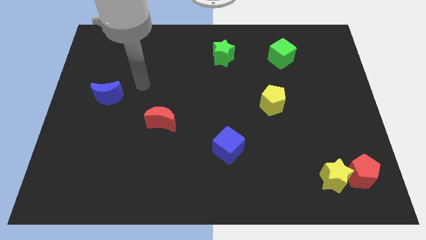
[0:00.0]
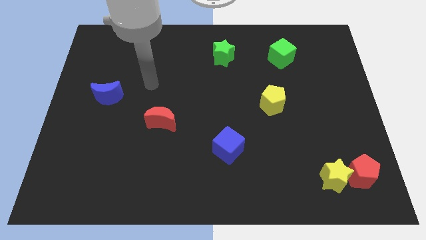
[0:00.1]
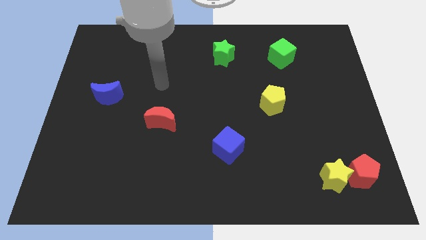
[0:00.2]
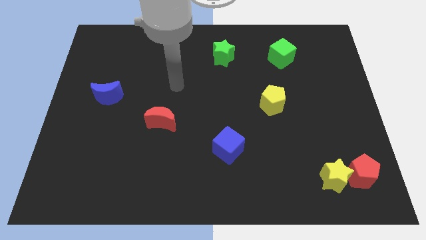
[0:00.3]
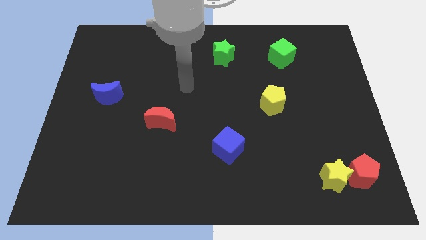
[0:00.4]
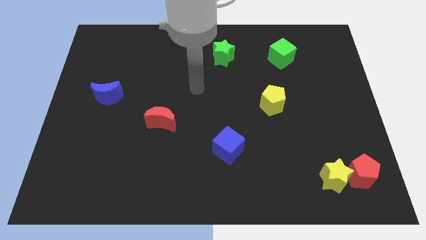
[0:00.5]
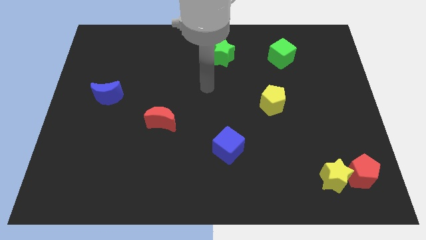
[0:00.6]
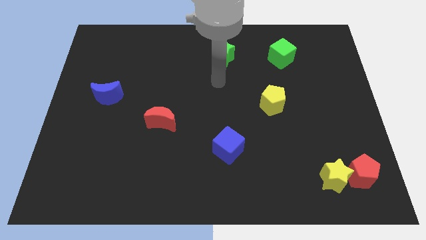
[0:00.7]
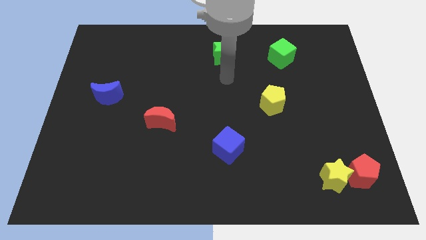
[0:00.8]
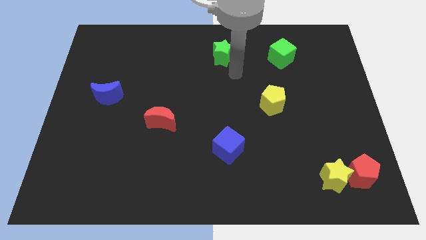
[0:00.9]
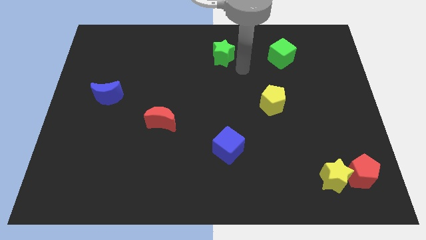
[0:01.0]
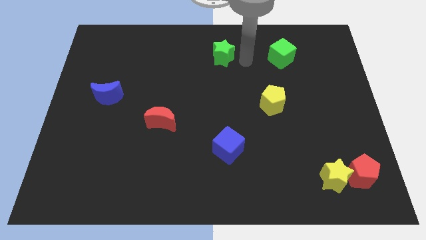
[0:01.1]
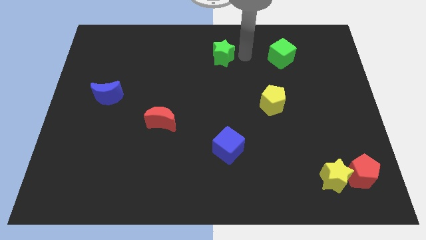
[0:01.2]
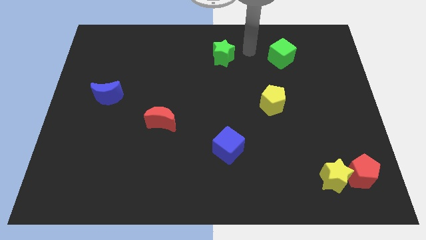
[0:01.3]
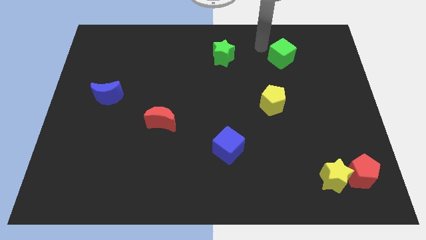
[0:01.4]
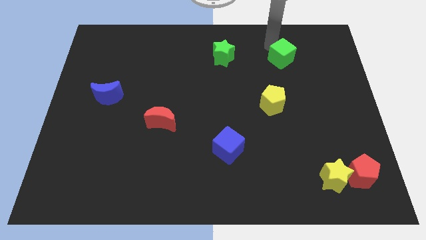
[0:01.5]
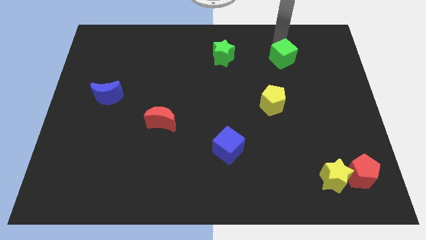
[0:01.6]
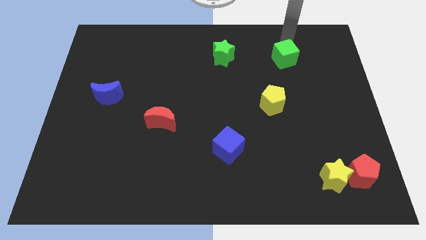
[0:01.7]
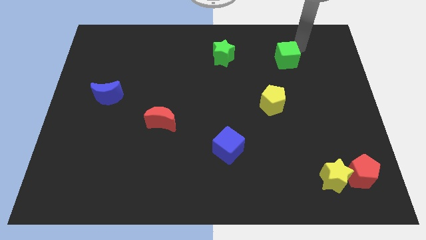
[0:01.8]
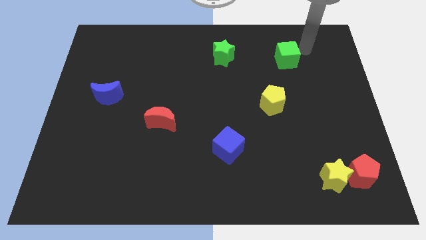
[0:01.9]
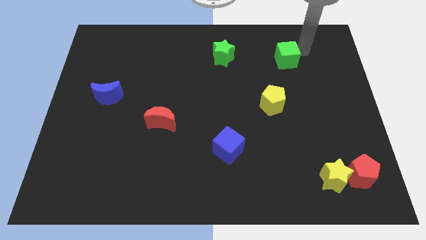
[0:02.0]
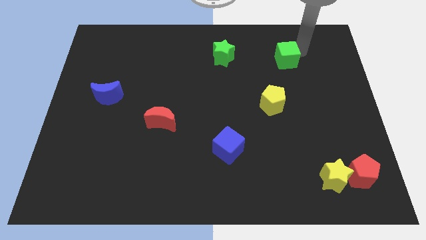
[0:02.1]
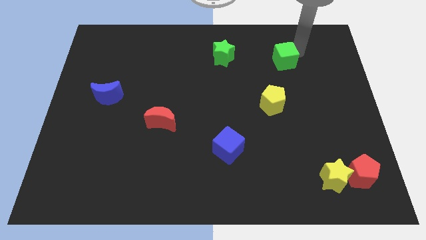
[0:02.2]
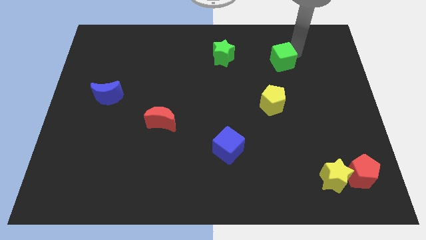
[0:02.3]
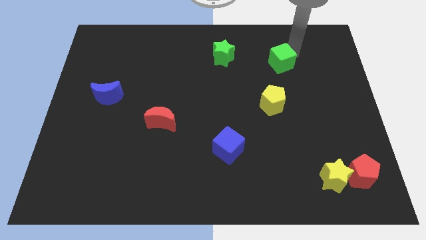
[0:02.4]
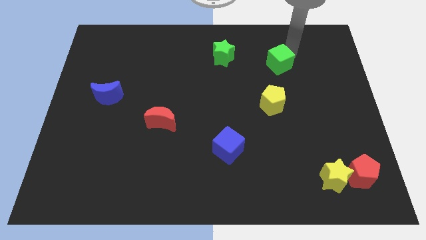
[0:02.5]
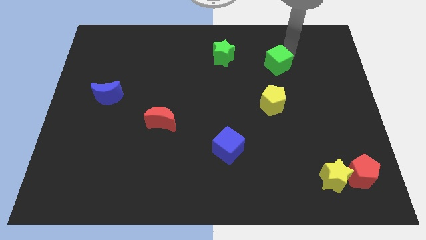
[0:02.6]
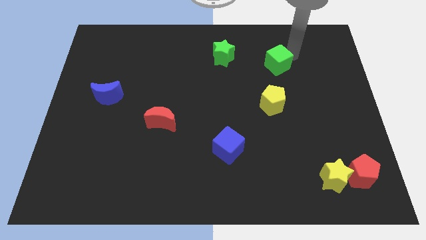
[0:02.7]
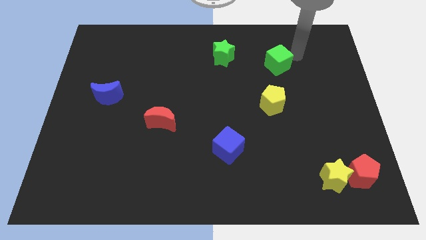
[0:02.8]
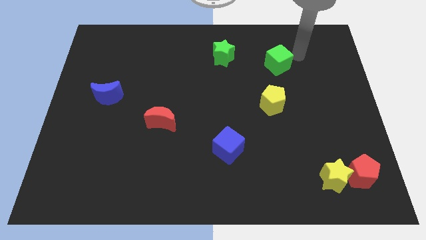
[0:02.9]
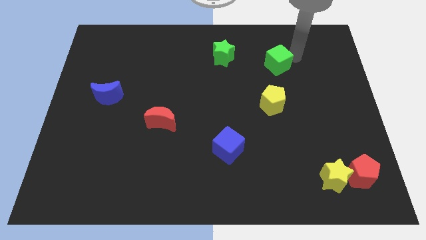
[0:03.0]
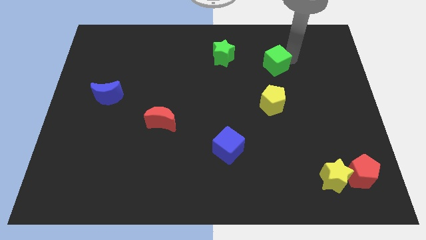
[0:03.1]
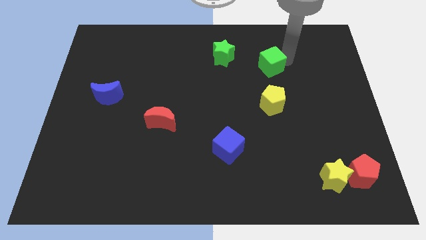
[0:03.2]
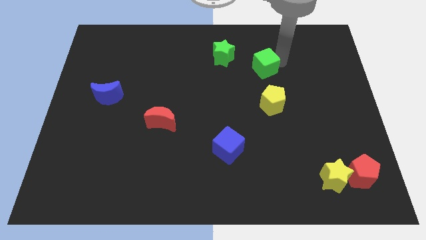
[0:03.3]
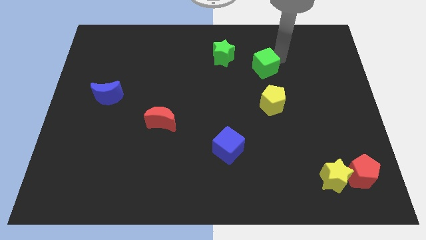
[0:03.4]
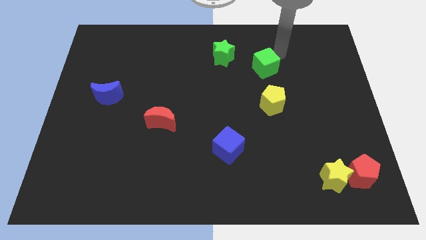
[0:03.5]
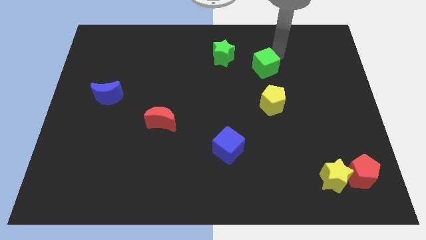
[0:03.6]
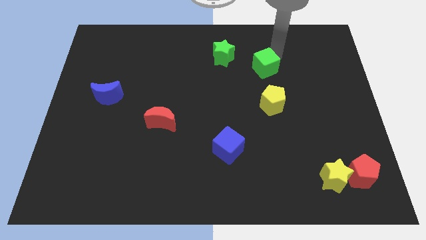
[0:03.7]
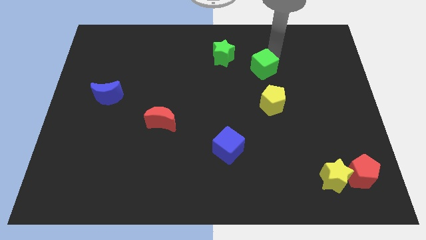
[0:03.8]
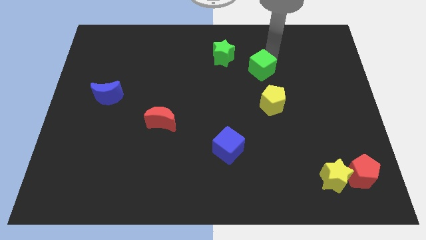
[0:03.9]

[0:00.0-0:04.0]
slide the green cube somewhat diagonally down and left

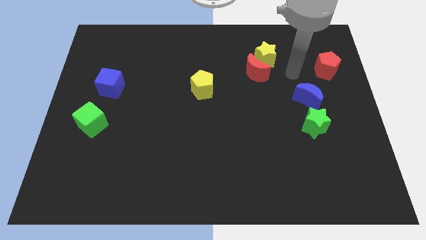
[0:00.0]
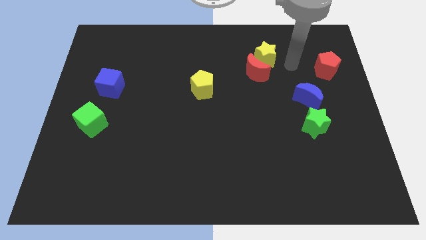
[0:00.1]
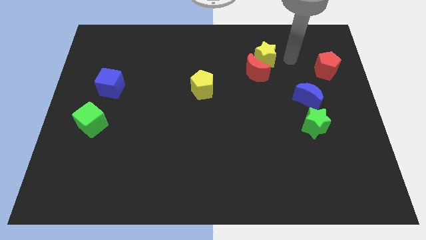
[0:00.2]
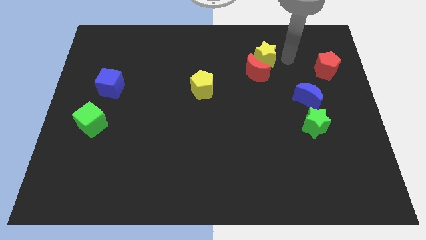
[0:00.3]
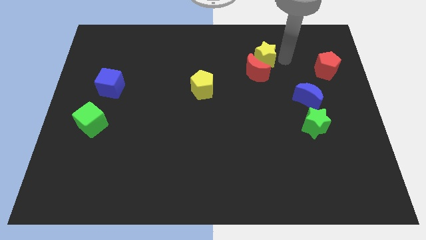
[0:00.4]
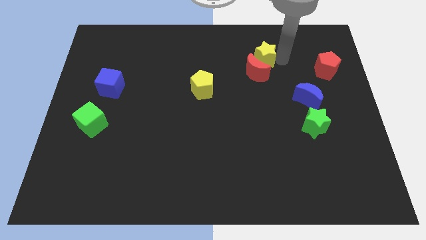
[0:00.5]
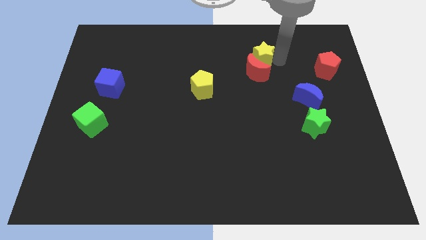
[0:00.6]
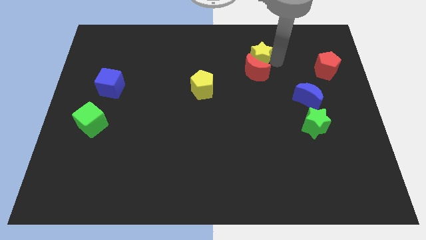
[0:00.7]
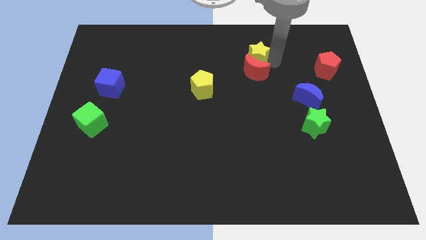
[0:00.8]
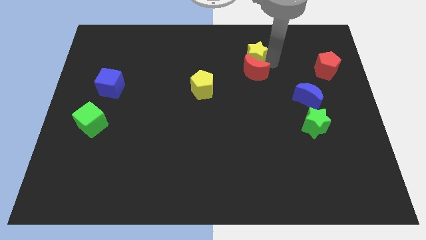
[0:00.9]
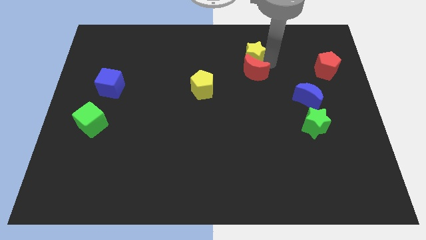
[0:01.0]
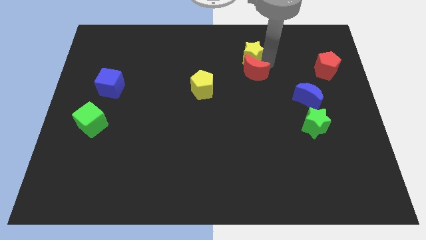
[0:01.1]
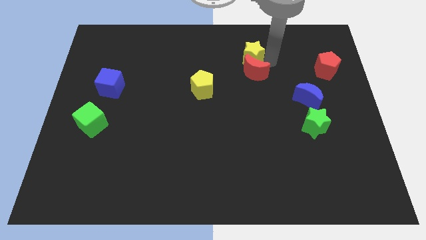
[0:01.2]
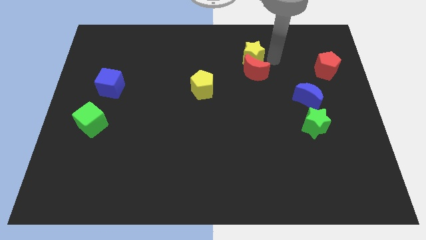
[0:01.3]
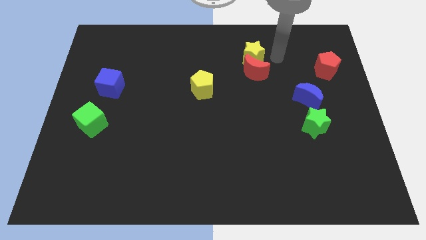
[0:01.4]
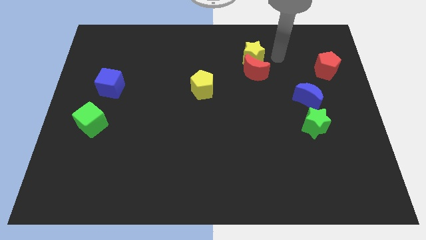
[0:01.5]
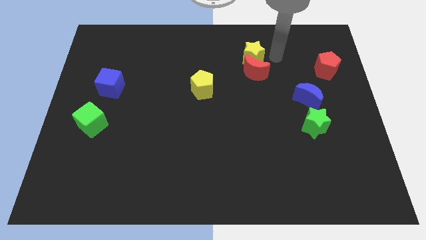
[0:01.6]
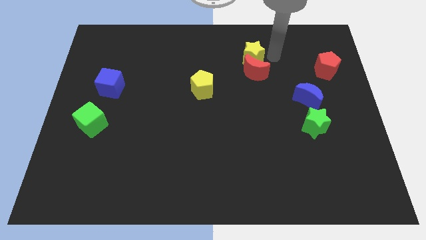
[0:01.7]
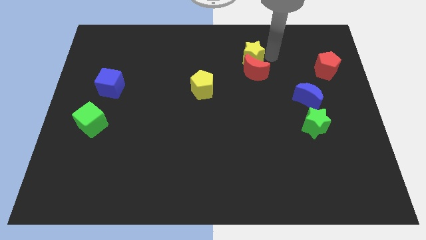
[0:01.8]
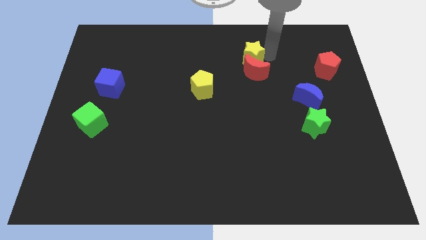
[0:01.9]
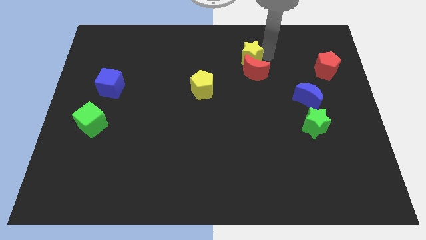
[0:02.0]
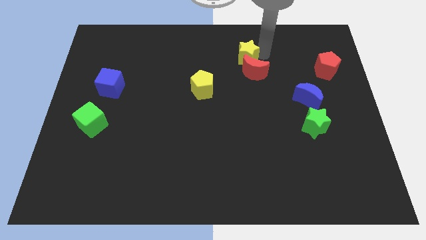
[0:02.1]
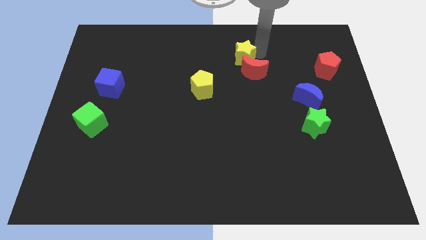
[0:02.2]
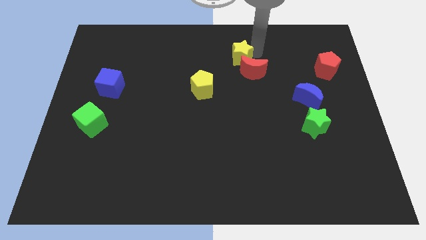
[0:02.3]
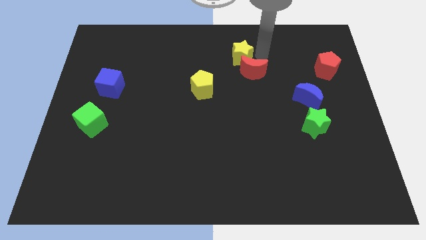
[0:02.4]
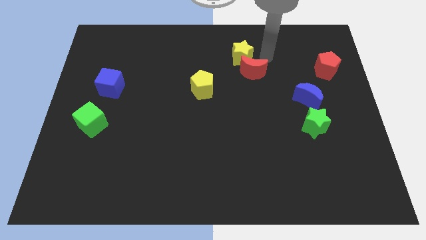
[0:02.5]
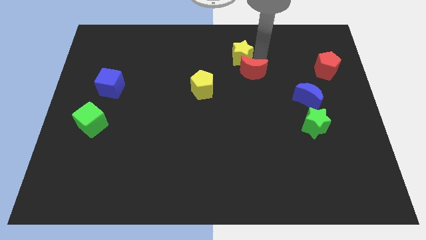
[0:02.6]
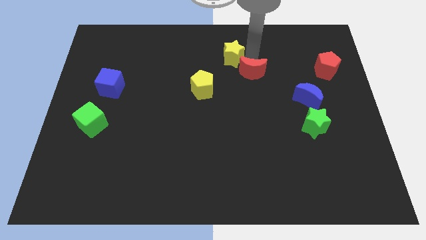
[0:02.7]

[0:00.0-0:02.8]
move the yellow star somewhat to the left

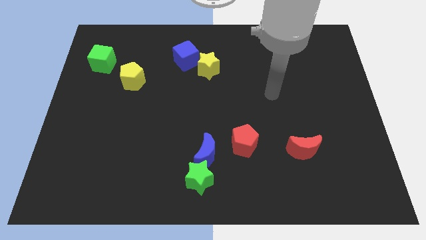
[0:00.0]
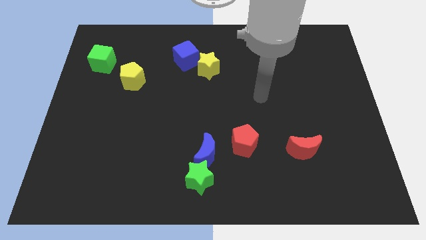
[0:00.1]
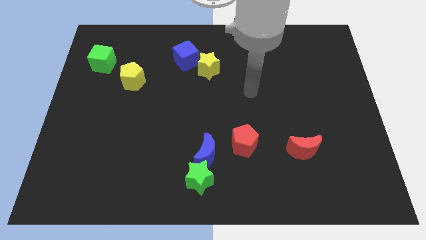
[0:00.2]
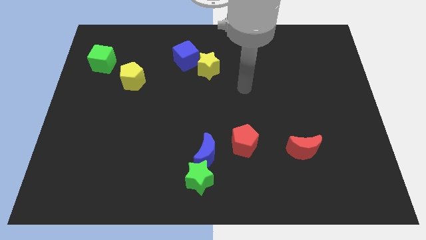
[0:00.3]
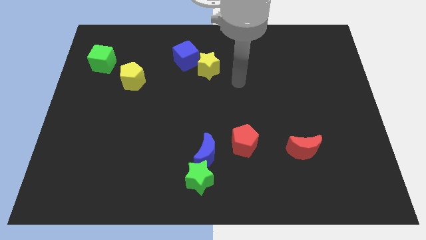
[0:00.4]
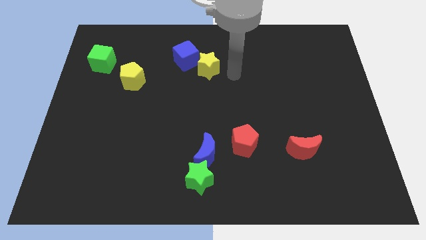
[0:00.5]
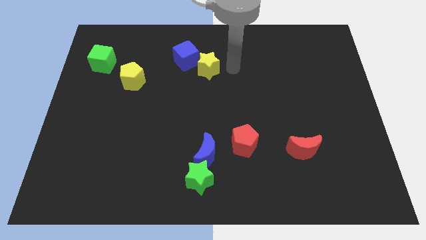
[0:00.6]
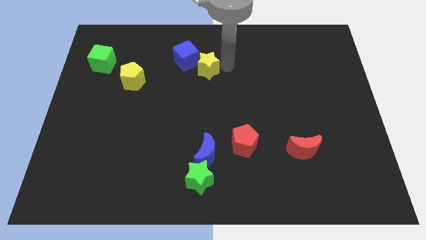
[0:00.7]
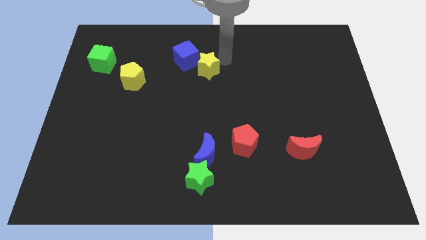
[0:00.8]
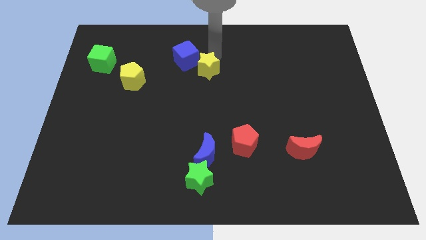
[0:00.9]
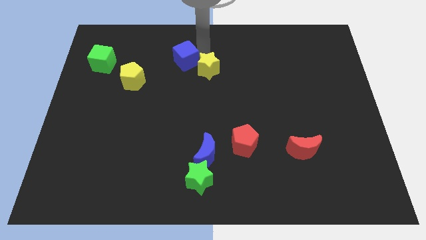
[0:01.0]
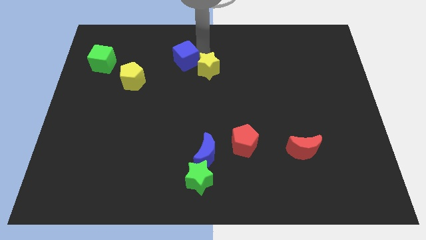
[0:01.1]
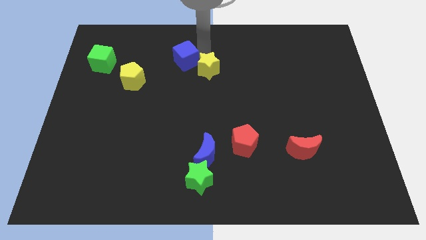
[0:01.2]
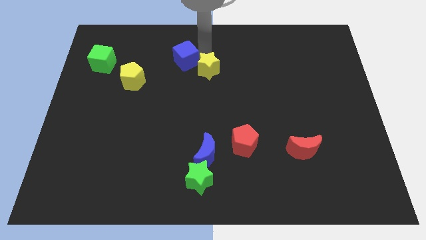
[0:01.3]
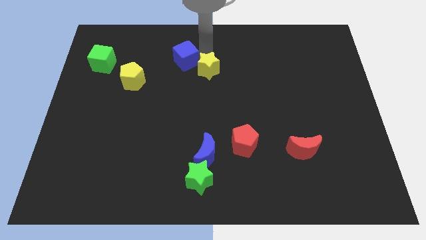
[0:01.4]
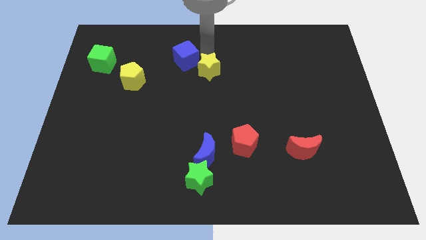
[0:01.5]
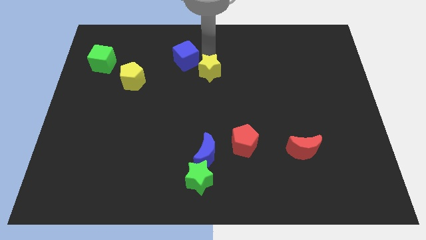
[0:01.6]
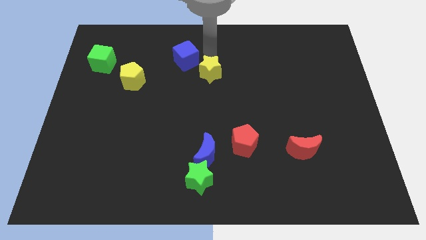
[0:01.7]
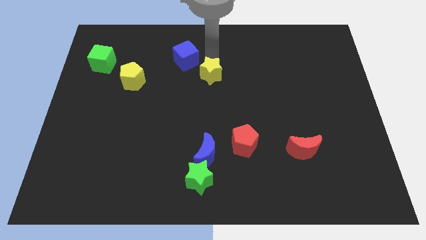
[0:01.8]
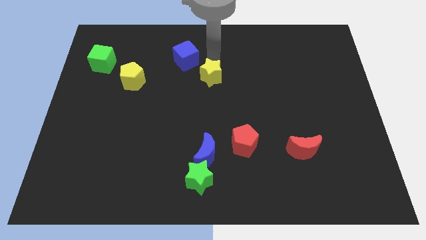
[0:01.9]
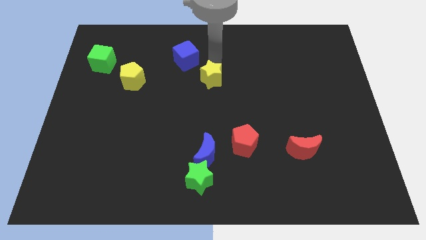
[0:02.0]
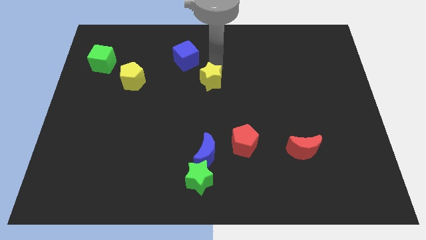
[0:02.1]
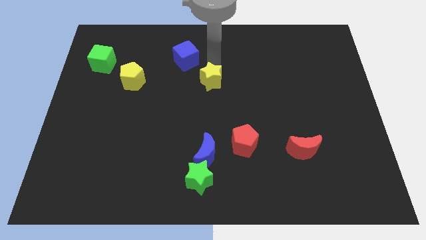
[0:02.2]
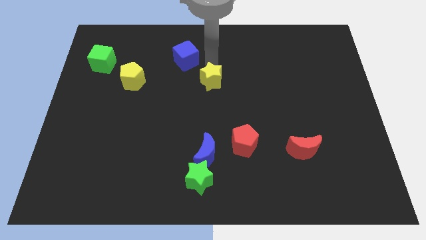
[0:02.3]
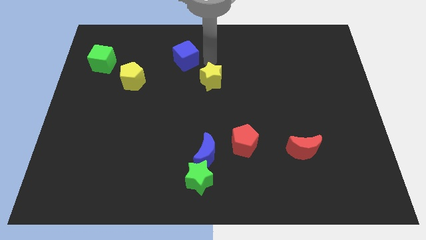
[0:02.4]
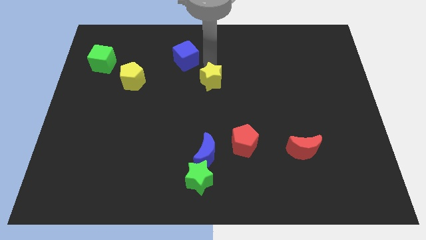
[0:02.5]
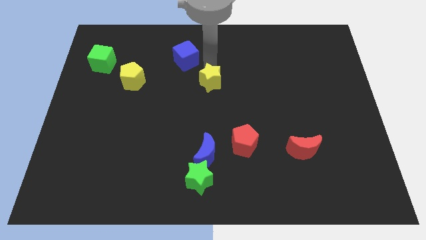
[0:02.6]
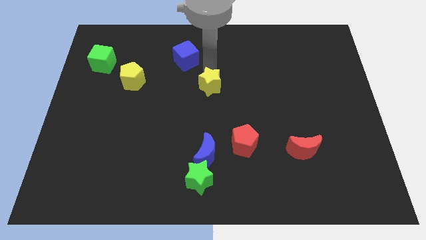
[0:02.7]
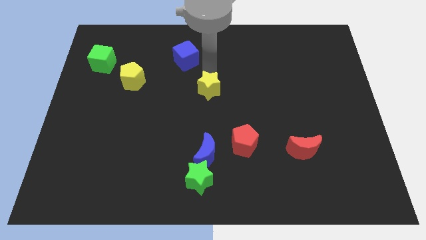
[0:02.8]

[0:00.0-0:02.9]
slightly push the yellow star down
